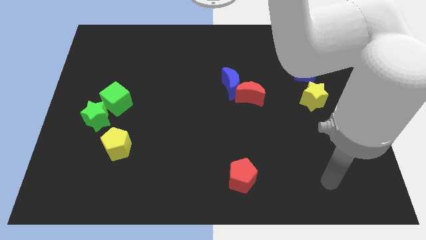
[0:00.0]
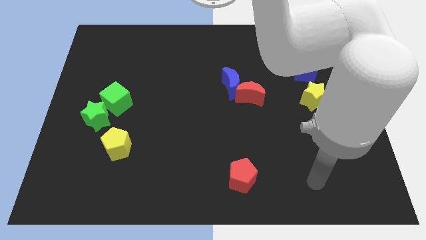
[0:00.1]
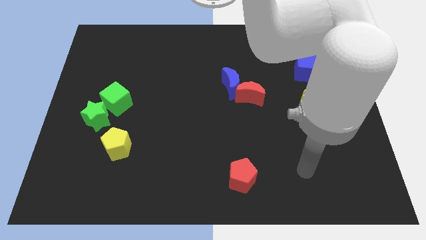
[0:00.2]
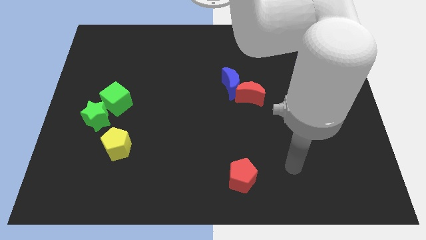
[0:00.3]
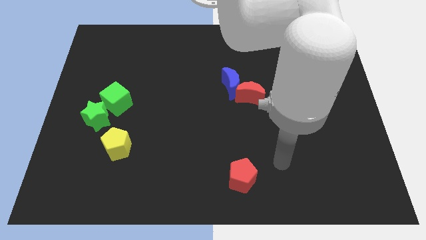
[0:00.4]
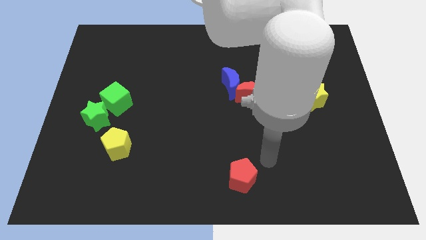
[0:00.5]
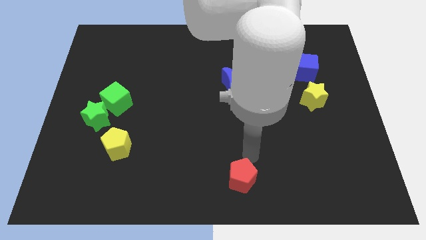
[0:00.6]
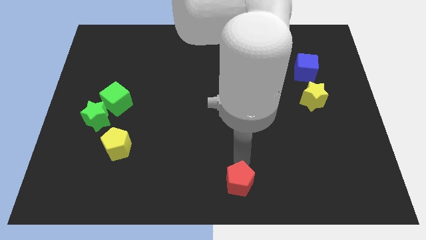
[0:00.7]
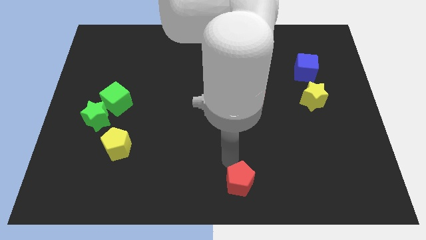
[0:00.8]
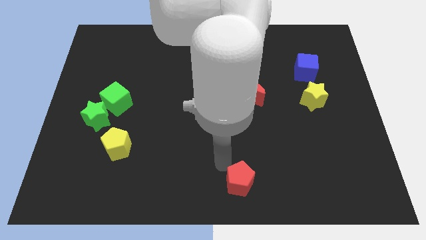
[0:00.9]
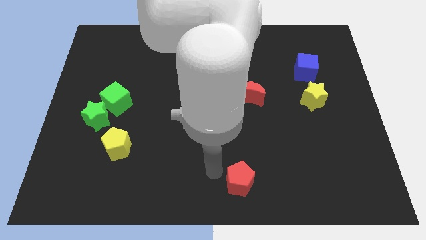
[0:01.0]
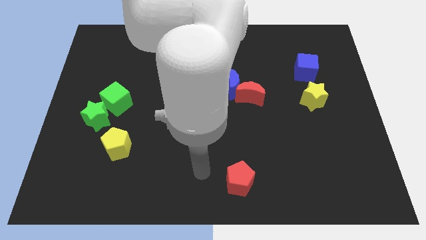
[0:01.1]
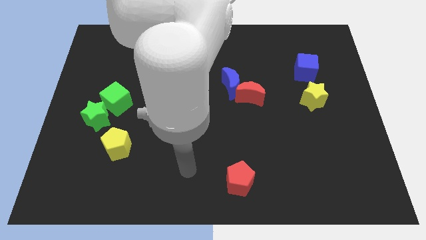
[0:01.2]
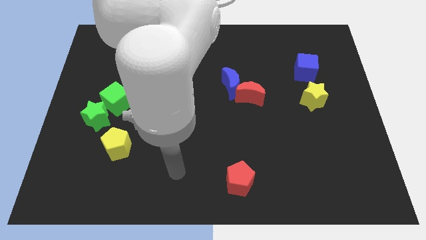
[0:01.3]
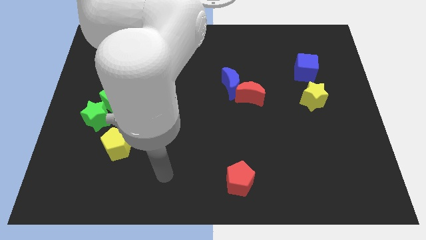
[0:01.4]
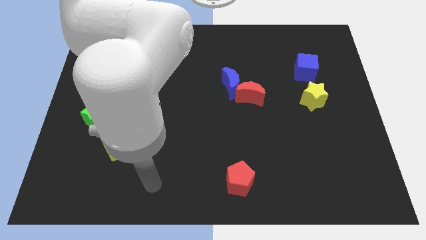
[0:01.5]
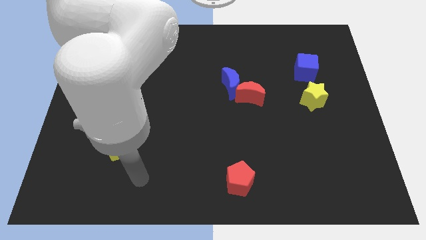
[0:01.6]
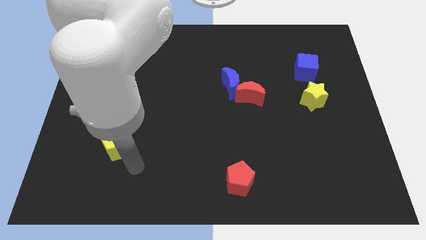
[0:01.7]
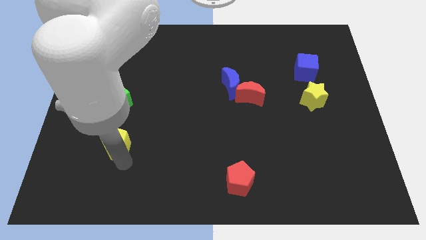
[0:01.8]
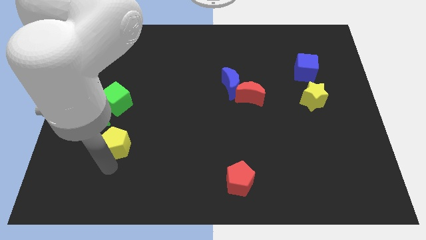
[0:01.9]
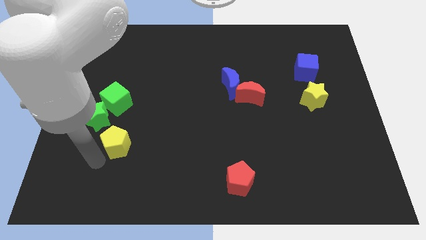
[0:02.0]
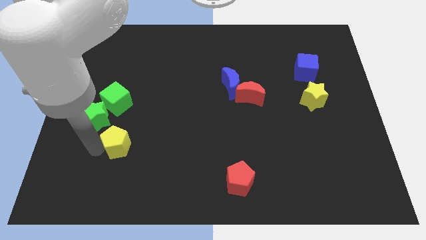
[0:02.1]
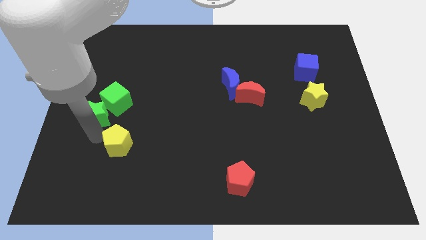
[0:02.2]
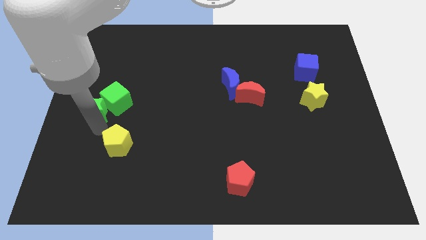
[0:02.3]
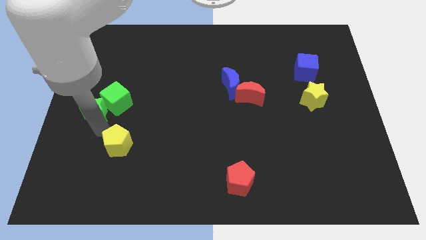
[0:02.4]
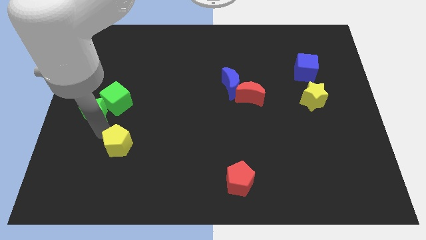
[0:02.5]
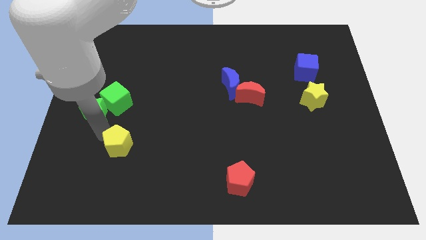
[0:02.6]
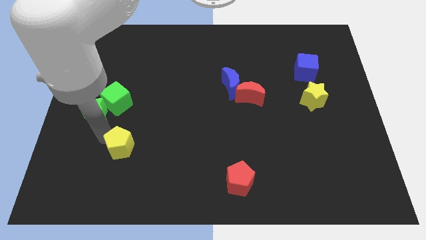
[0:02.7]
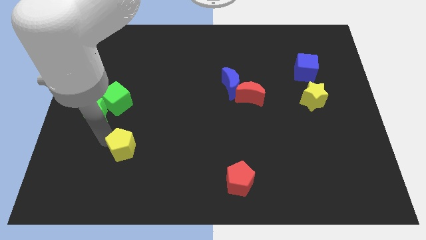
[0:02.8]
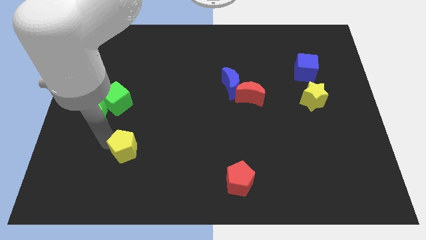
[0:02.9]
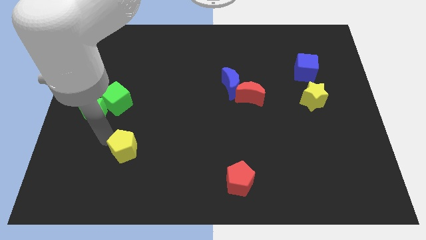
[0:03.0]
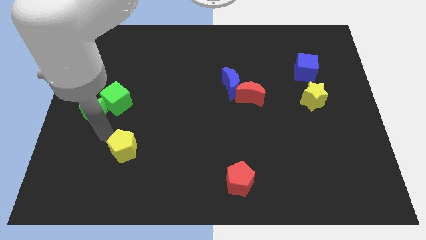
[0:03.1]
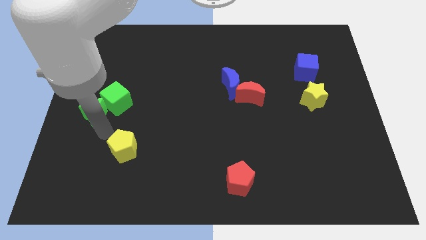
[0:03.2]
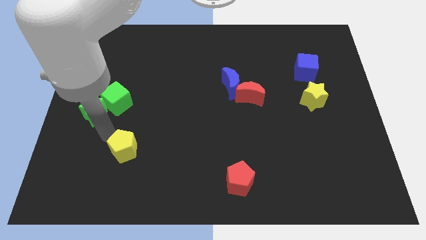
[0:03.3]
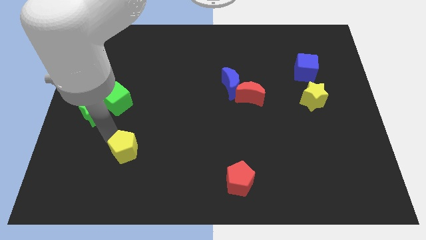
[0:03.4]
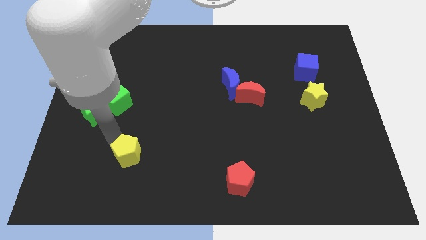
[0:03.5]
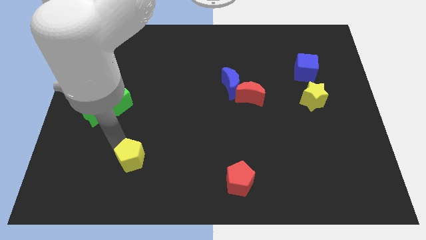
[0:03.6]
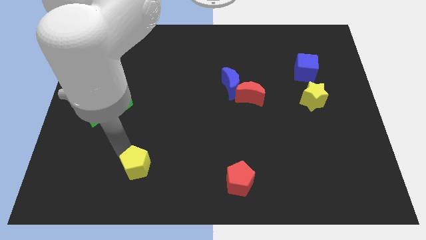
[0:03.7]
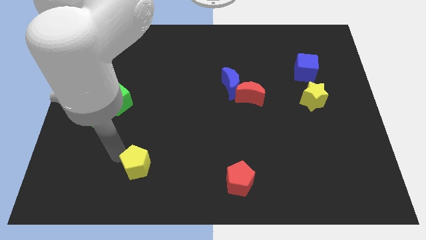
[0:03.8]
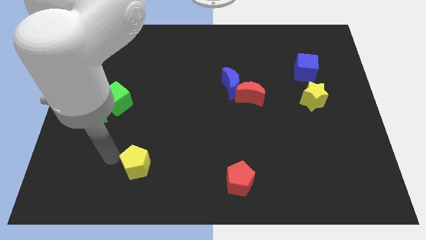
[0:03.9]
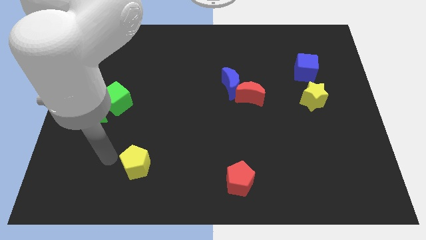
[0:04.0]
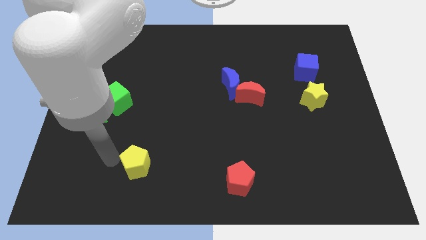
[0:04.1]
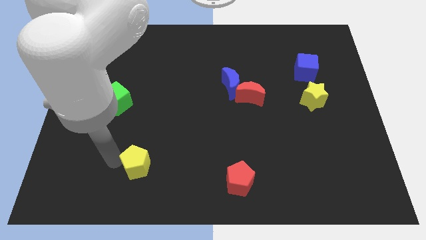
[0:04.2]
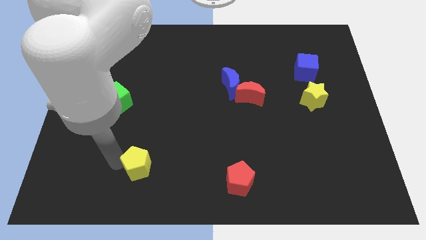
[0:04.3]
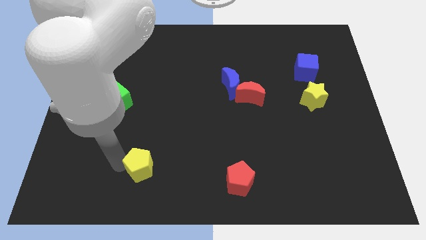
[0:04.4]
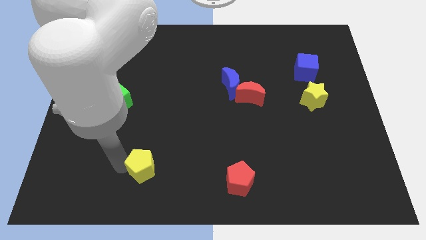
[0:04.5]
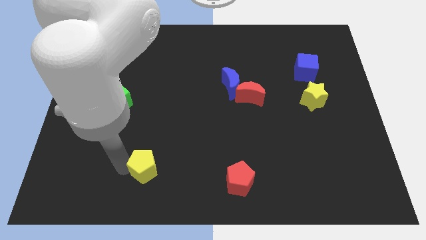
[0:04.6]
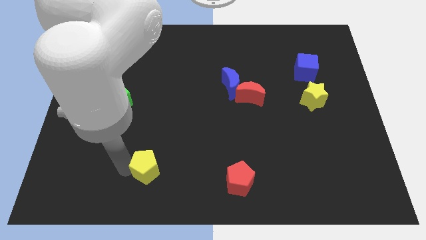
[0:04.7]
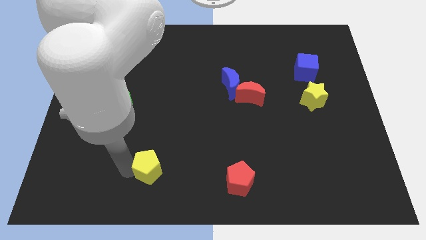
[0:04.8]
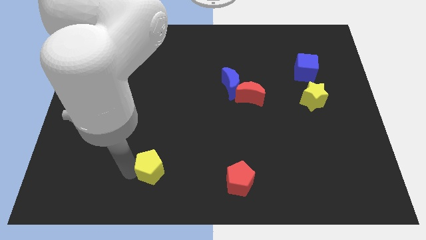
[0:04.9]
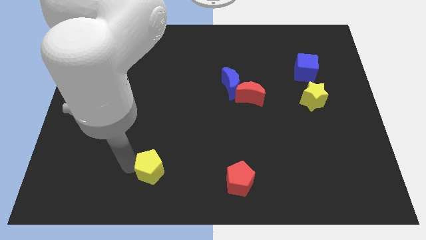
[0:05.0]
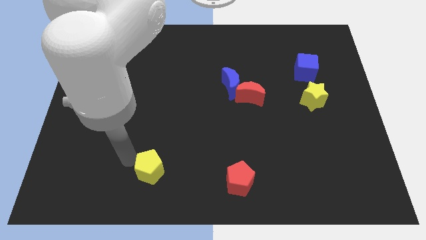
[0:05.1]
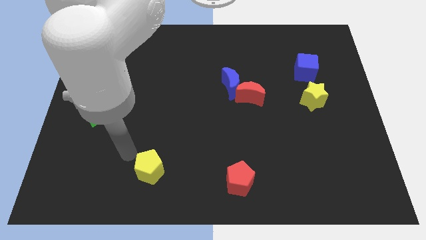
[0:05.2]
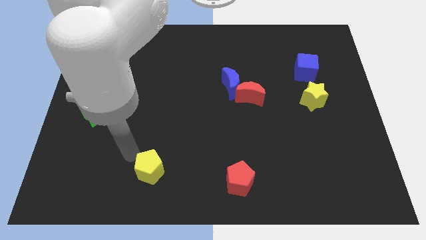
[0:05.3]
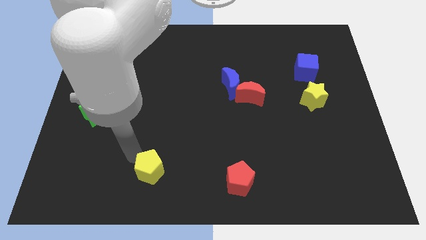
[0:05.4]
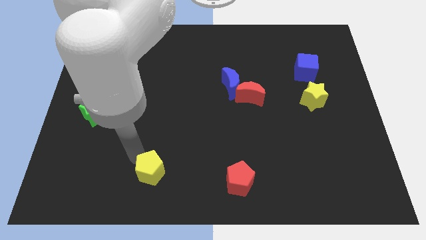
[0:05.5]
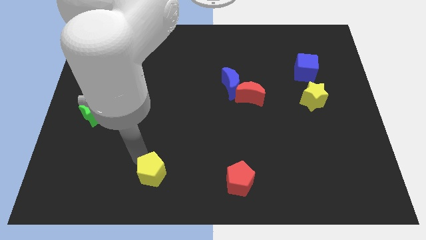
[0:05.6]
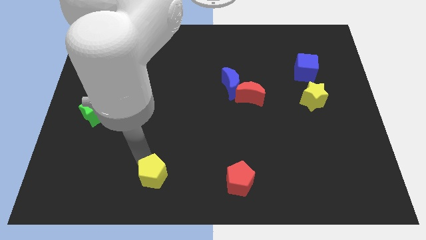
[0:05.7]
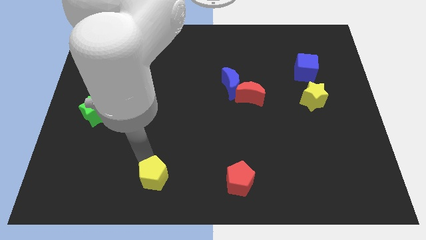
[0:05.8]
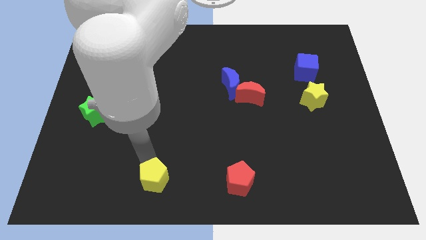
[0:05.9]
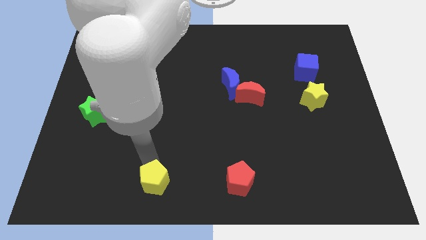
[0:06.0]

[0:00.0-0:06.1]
move the yellow pentagon to the bottom side

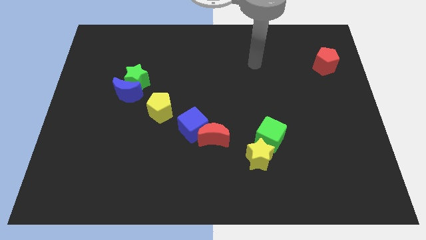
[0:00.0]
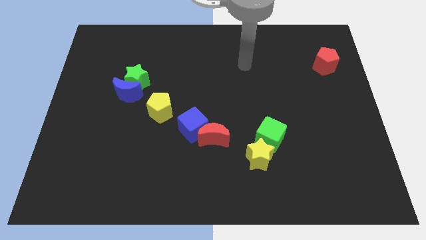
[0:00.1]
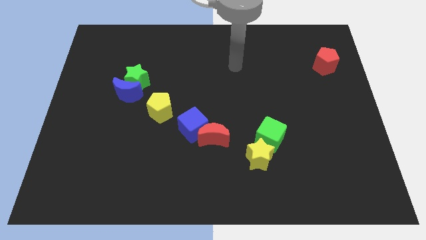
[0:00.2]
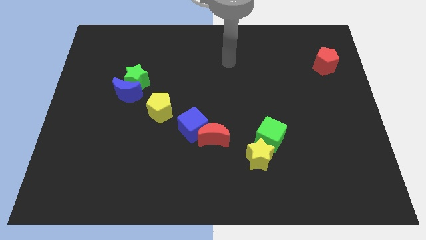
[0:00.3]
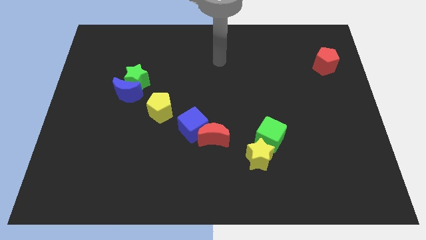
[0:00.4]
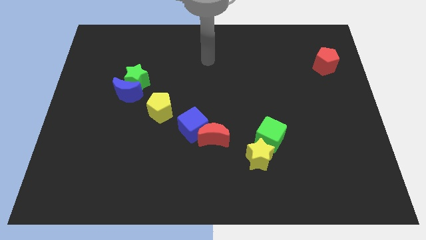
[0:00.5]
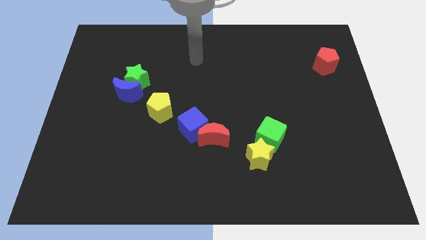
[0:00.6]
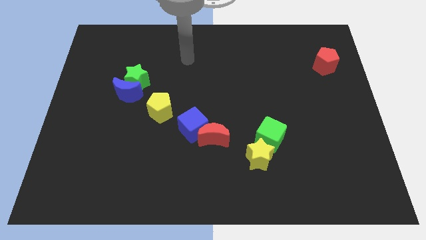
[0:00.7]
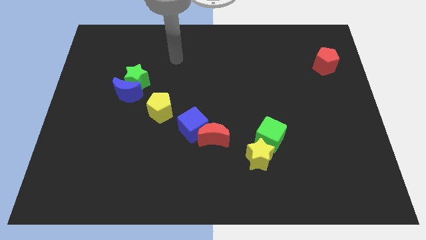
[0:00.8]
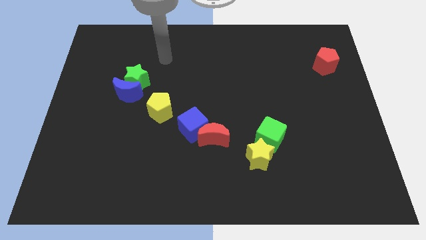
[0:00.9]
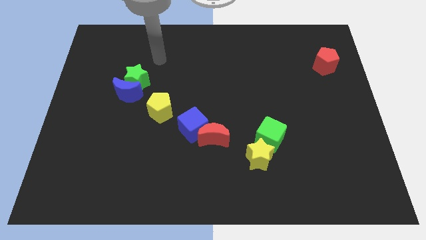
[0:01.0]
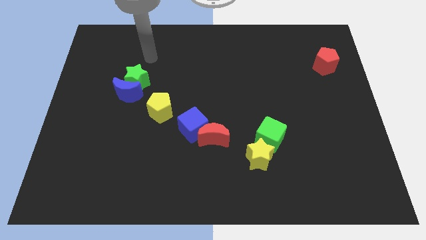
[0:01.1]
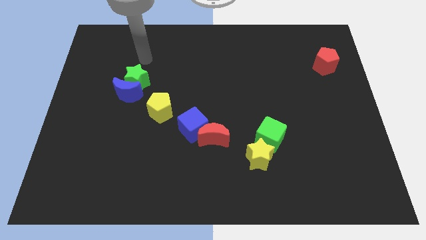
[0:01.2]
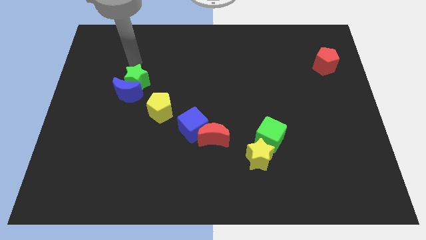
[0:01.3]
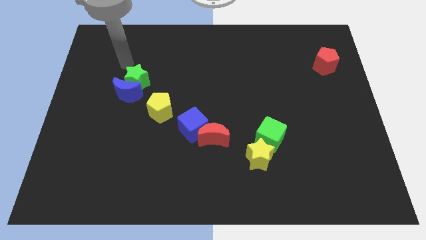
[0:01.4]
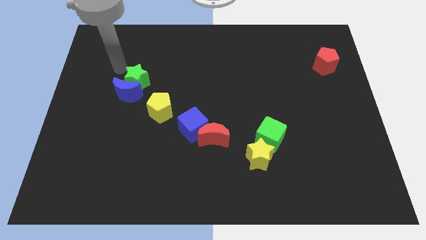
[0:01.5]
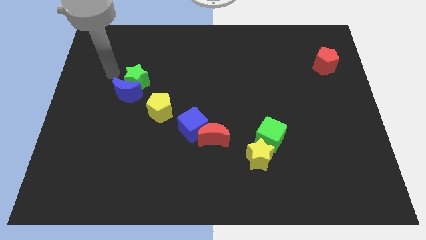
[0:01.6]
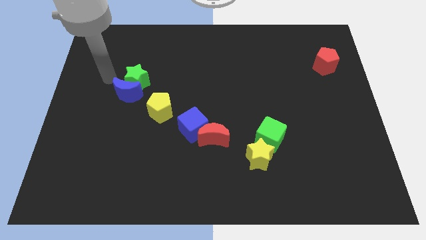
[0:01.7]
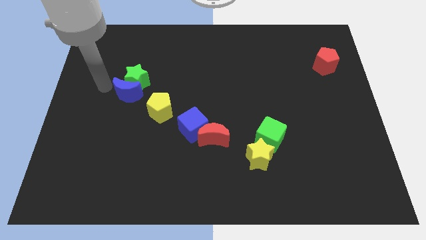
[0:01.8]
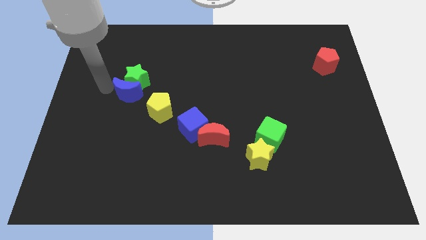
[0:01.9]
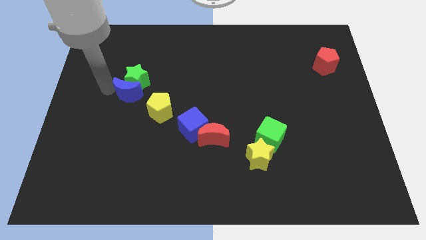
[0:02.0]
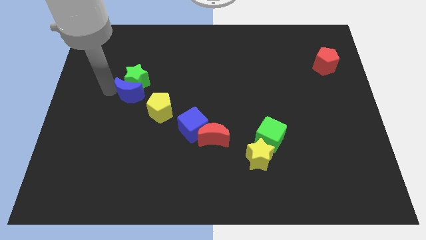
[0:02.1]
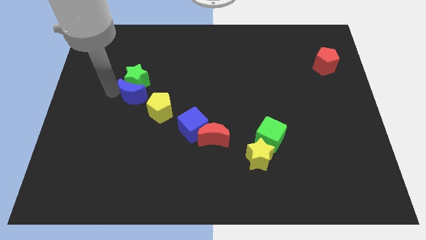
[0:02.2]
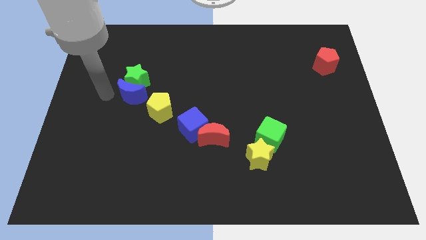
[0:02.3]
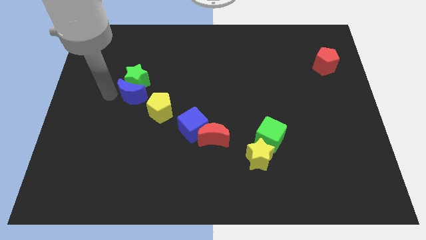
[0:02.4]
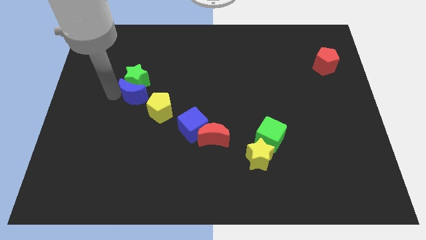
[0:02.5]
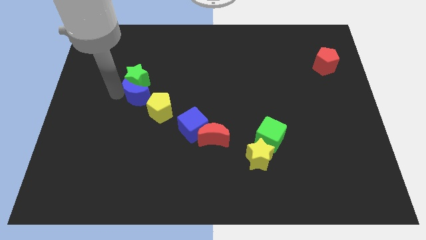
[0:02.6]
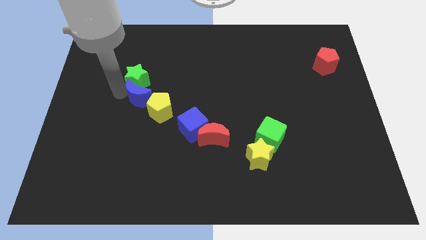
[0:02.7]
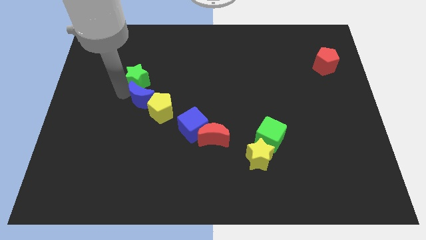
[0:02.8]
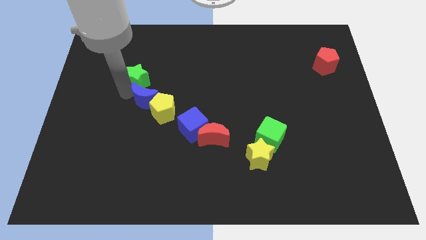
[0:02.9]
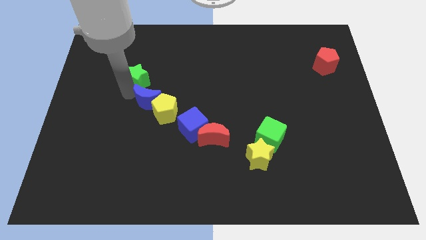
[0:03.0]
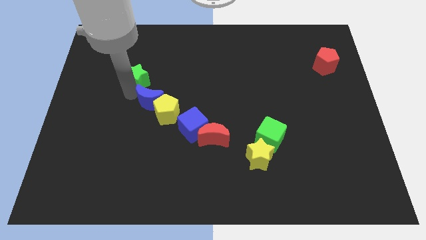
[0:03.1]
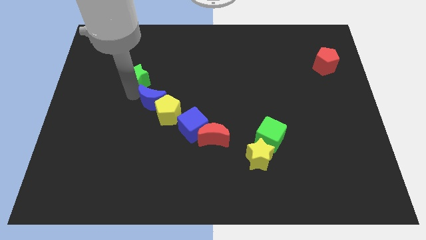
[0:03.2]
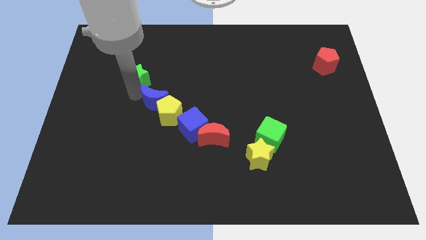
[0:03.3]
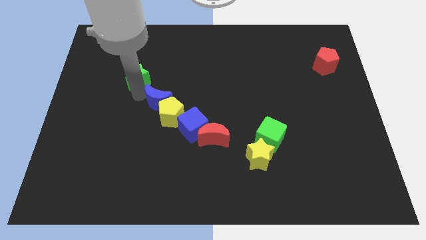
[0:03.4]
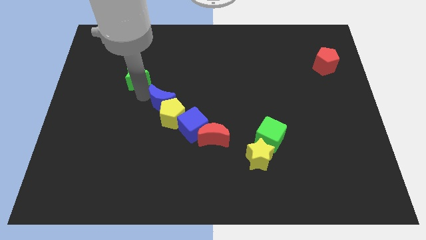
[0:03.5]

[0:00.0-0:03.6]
push the blue moon to the center
